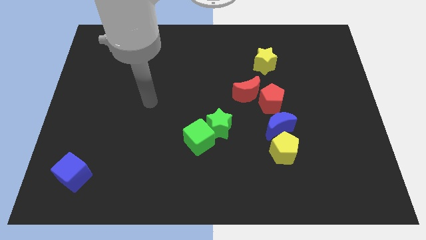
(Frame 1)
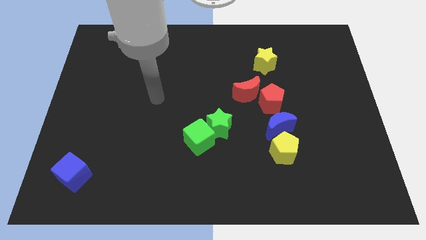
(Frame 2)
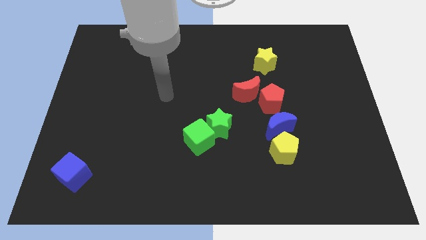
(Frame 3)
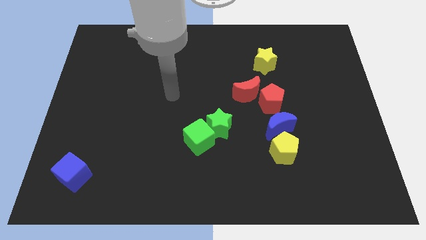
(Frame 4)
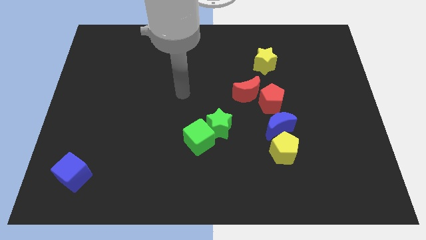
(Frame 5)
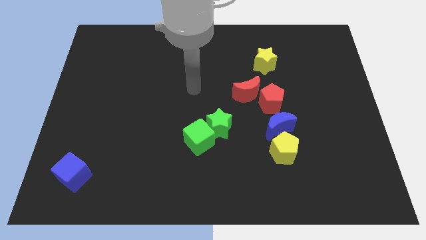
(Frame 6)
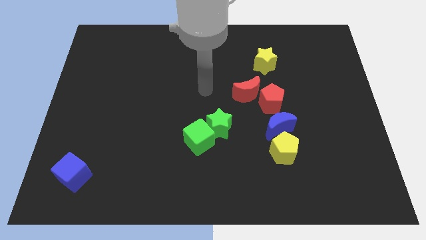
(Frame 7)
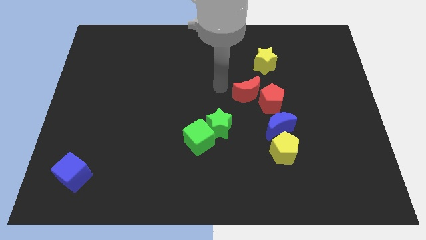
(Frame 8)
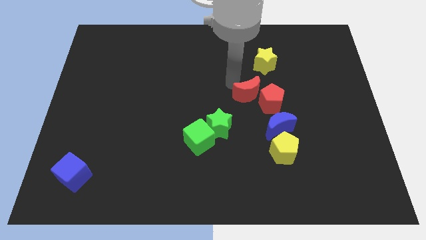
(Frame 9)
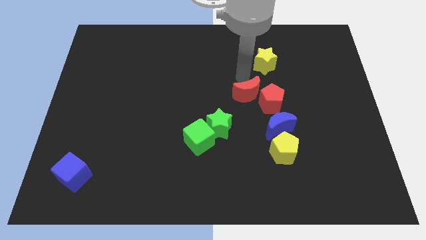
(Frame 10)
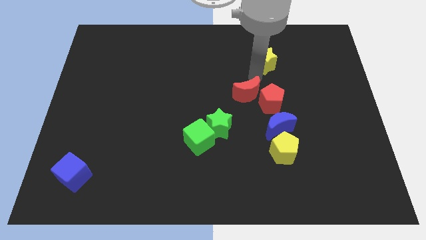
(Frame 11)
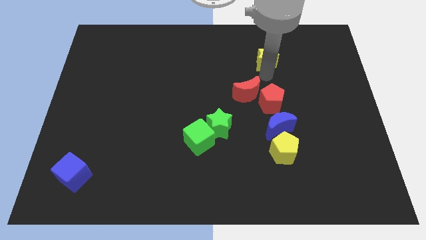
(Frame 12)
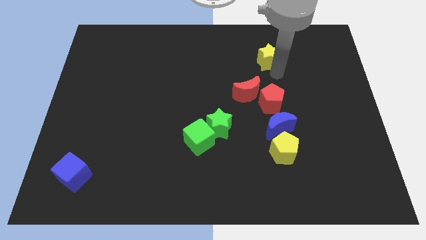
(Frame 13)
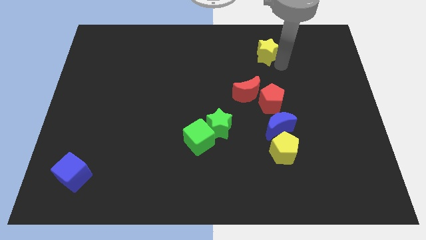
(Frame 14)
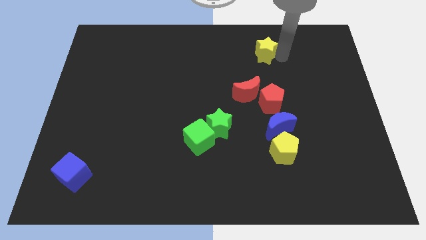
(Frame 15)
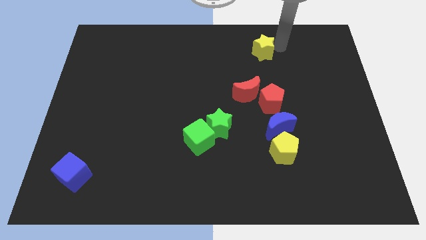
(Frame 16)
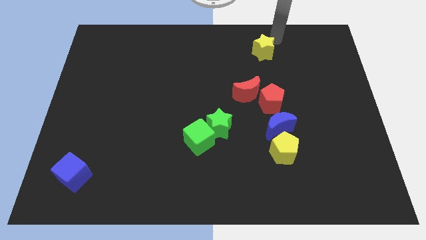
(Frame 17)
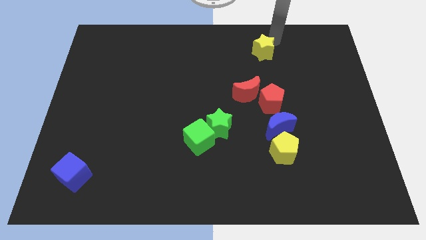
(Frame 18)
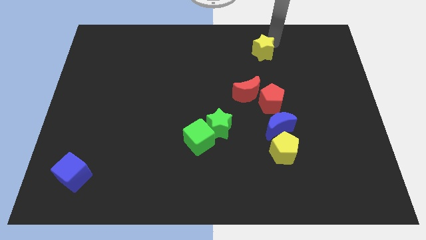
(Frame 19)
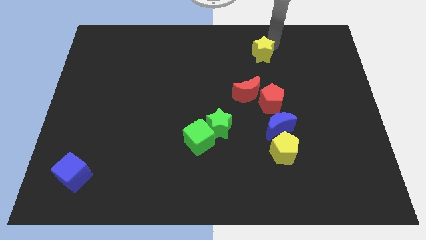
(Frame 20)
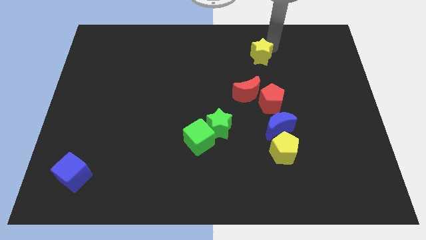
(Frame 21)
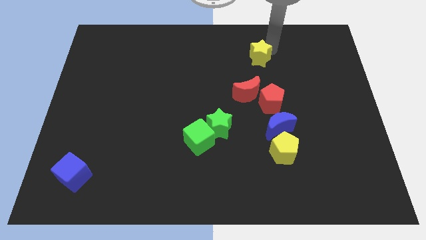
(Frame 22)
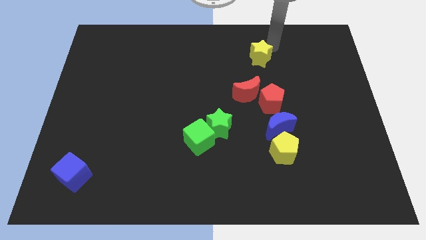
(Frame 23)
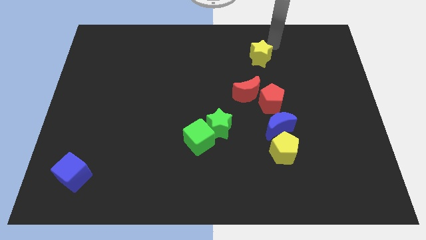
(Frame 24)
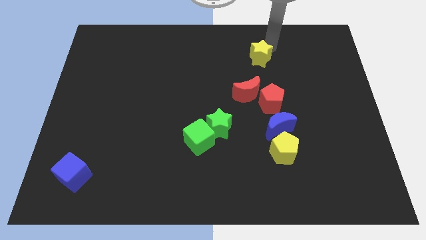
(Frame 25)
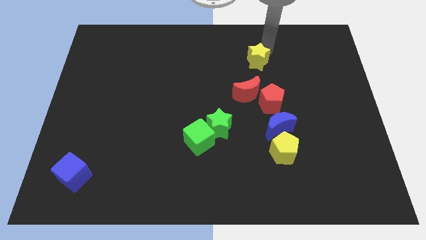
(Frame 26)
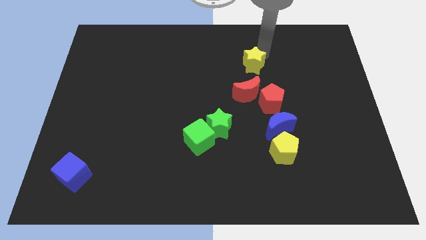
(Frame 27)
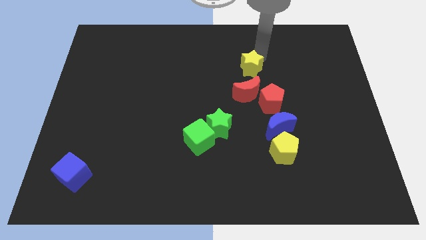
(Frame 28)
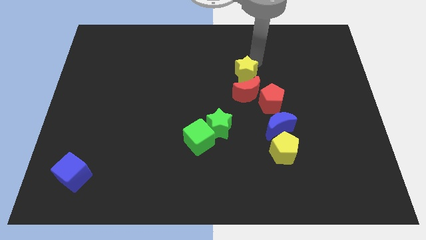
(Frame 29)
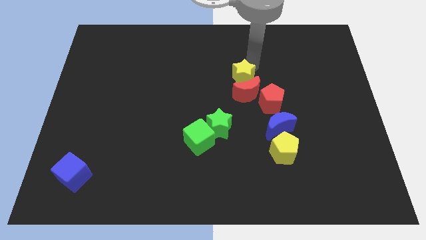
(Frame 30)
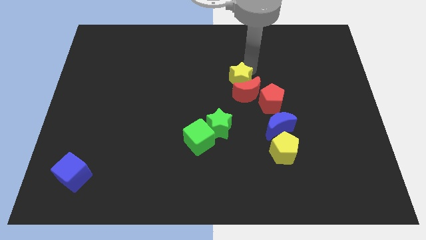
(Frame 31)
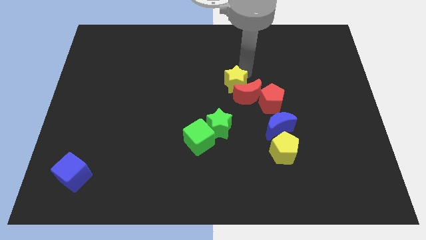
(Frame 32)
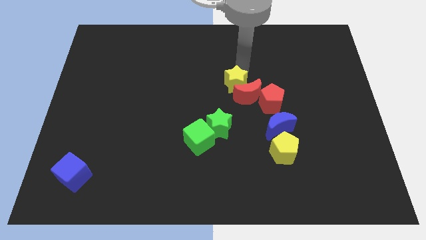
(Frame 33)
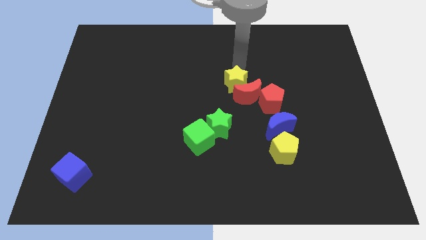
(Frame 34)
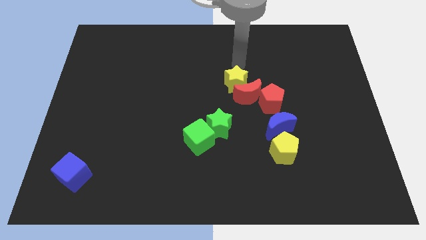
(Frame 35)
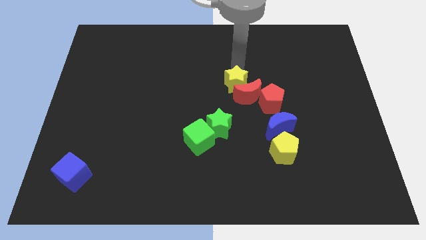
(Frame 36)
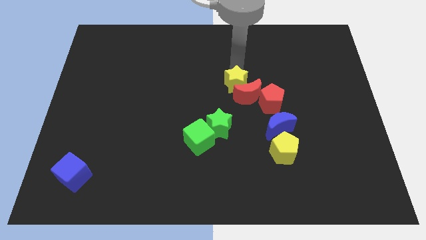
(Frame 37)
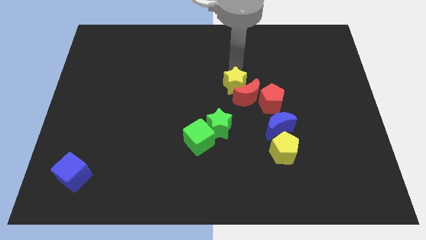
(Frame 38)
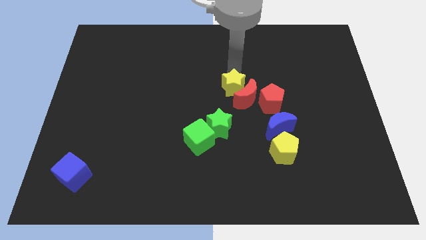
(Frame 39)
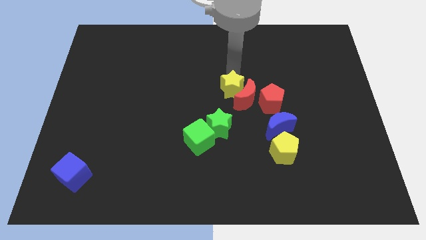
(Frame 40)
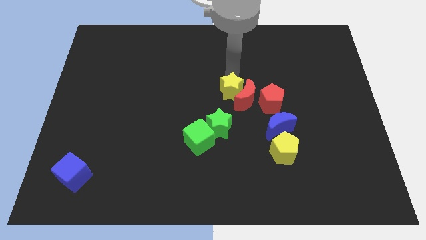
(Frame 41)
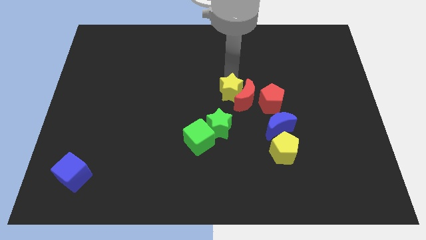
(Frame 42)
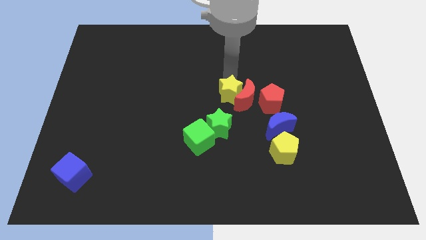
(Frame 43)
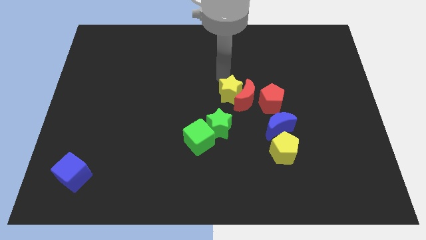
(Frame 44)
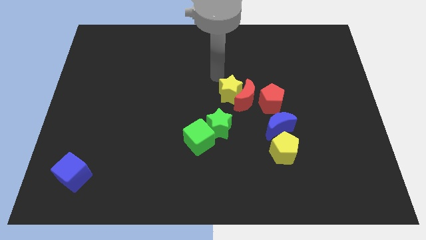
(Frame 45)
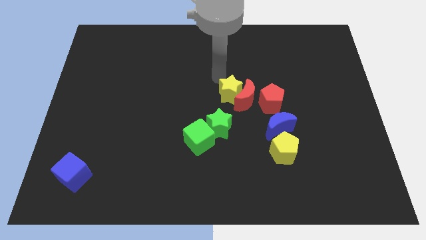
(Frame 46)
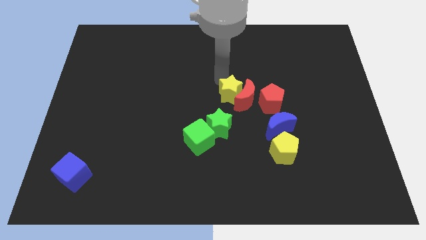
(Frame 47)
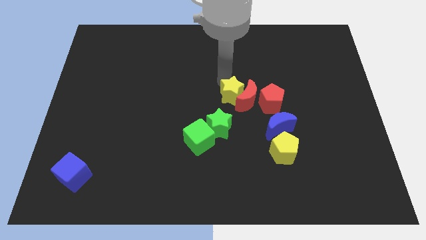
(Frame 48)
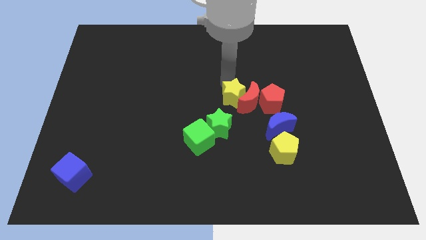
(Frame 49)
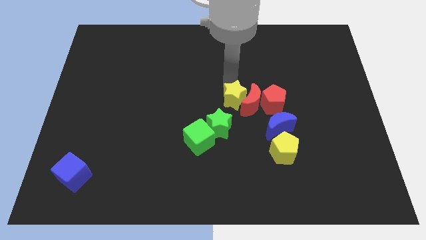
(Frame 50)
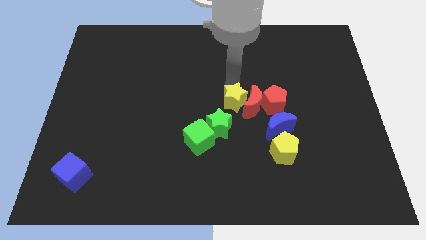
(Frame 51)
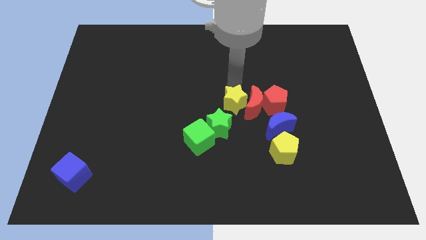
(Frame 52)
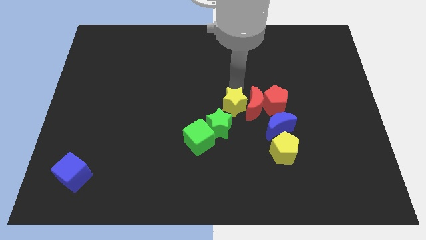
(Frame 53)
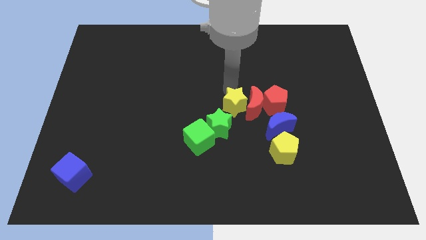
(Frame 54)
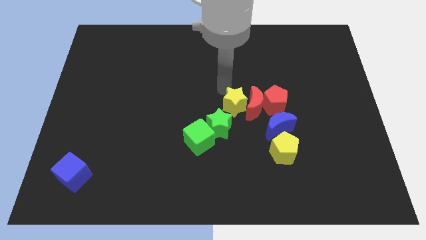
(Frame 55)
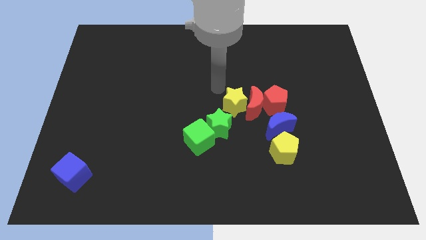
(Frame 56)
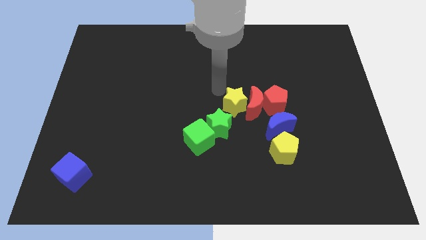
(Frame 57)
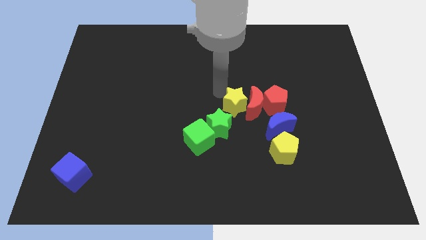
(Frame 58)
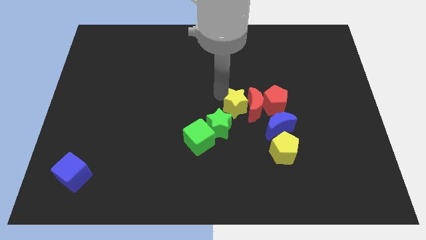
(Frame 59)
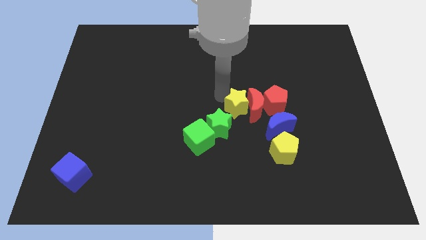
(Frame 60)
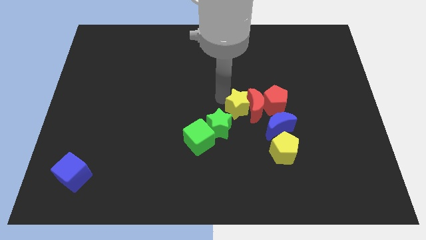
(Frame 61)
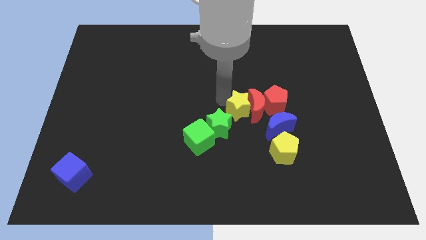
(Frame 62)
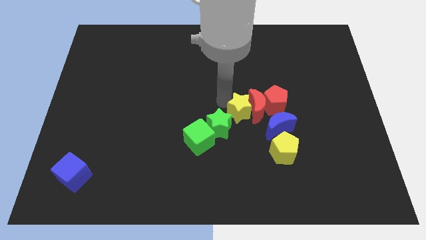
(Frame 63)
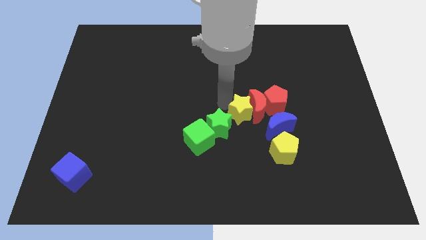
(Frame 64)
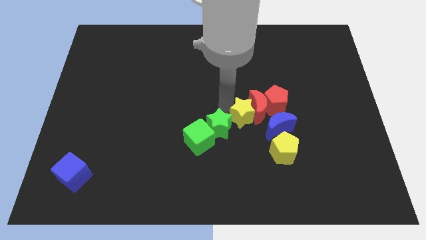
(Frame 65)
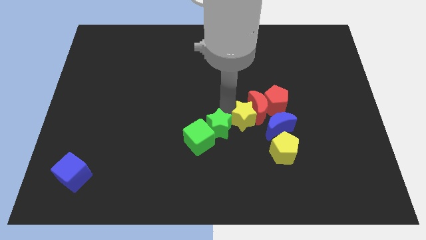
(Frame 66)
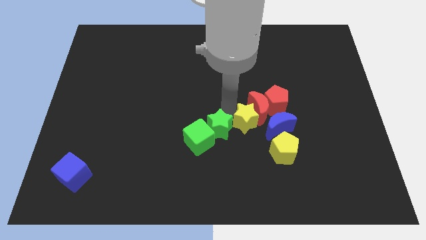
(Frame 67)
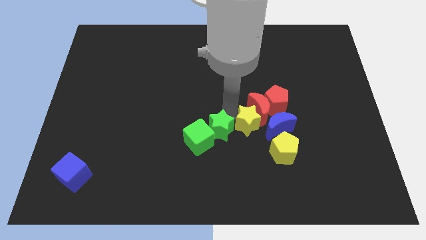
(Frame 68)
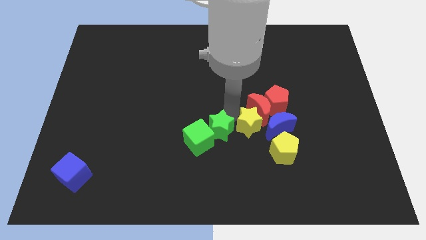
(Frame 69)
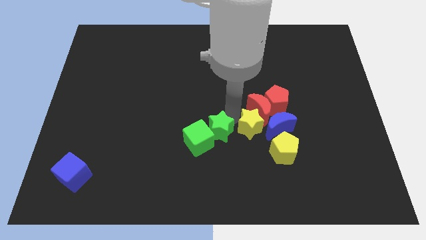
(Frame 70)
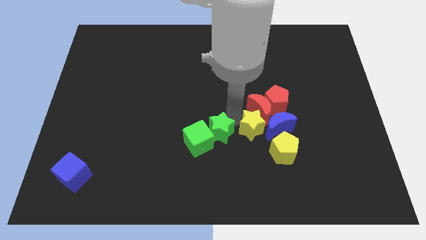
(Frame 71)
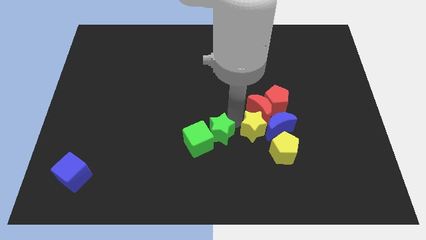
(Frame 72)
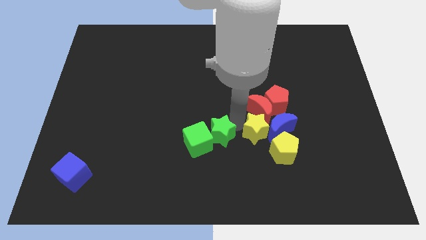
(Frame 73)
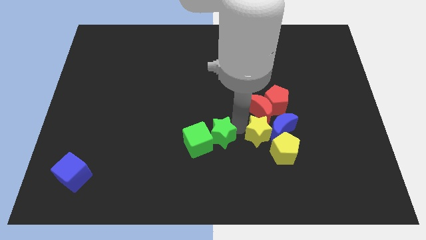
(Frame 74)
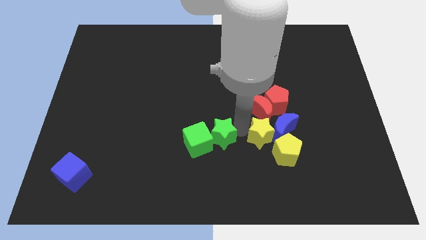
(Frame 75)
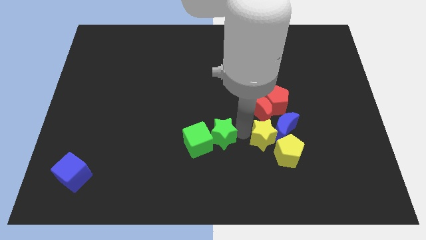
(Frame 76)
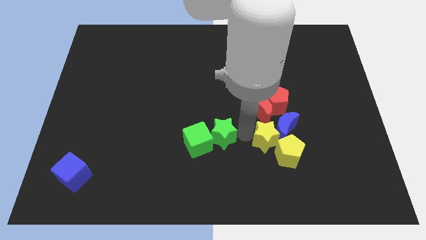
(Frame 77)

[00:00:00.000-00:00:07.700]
move the yellow star towards the yellow pentagon
